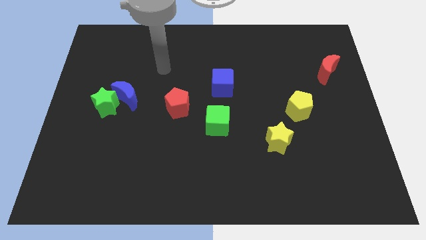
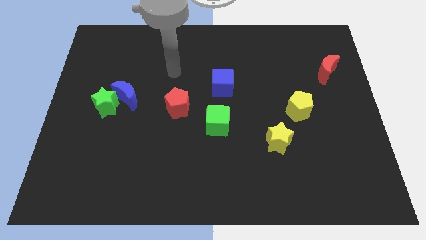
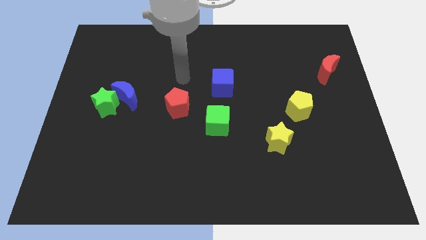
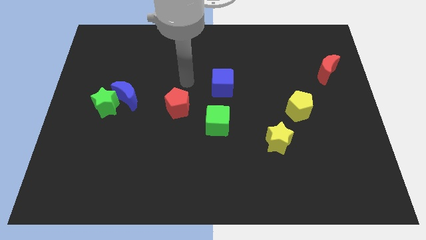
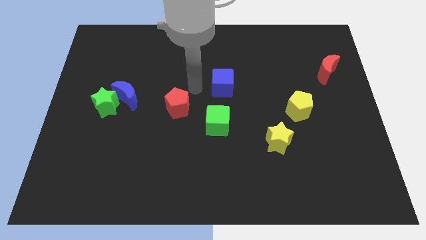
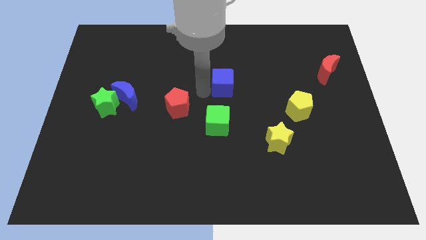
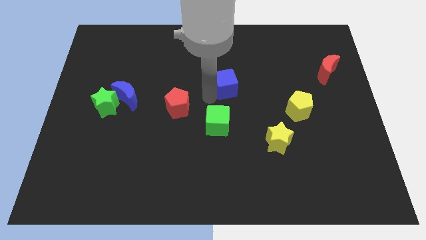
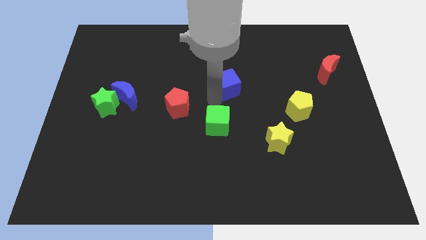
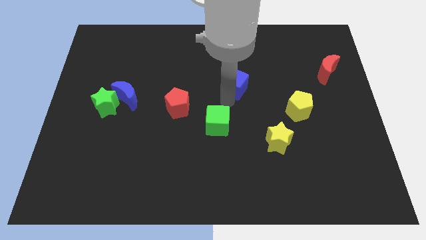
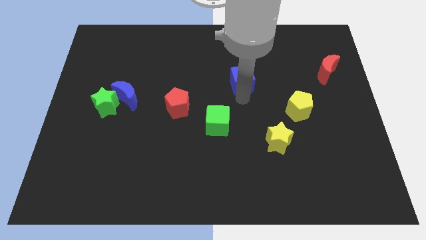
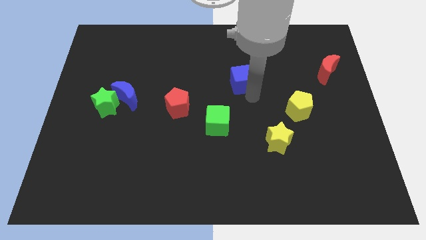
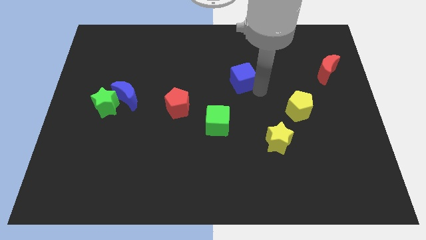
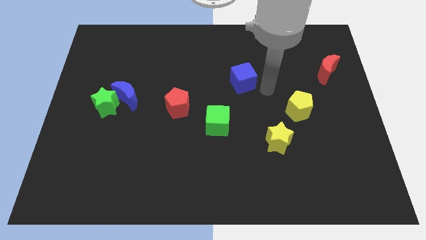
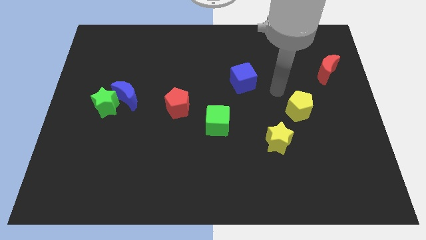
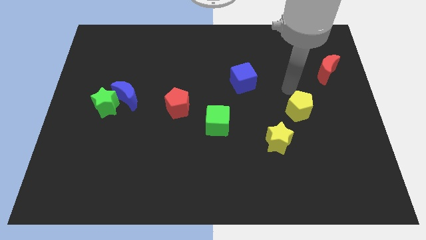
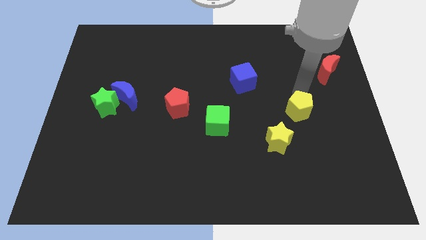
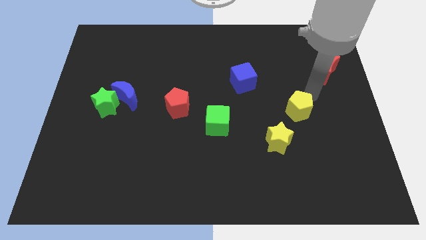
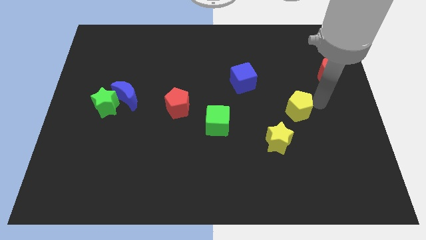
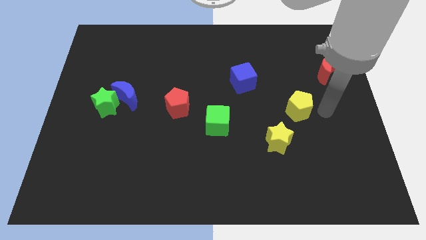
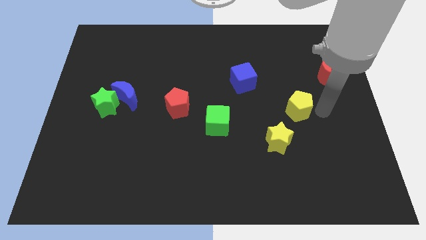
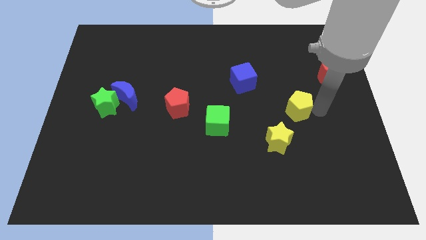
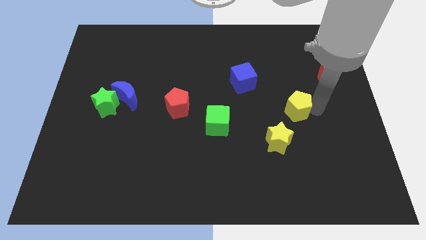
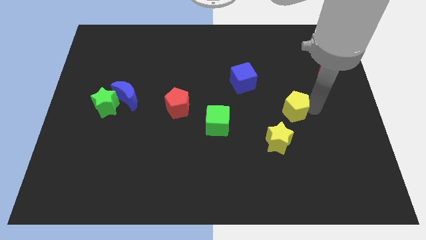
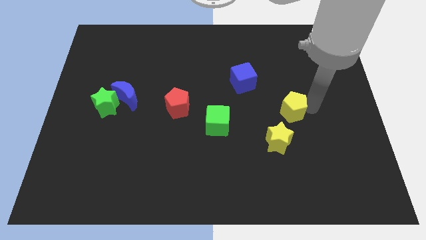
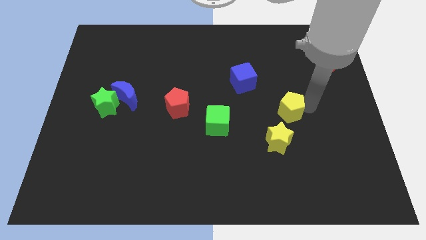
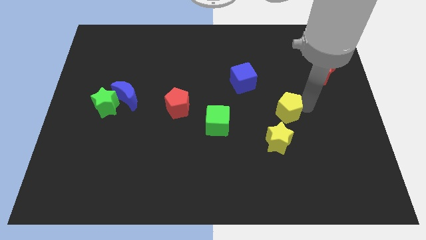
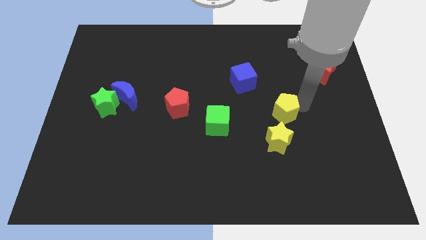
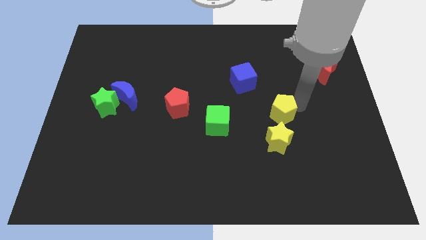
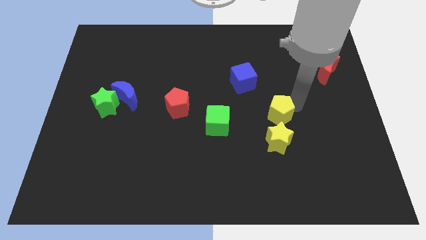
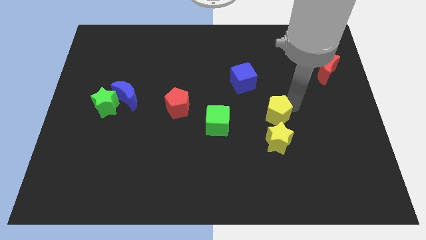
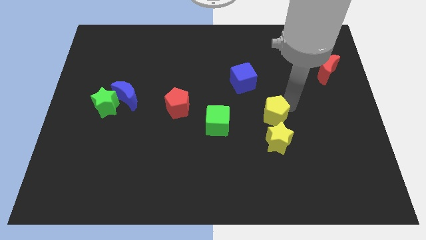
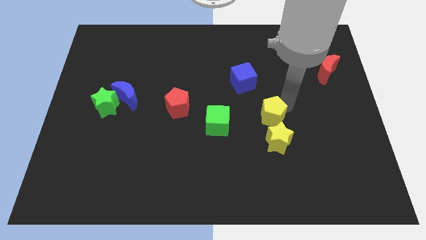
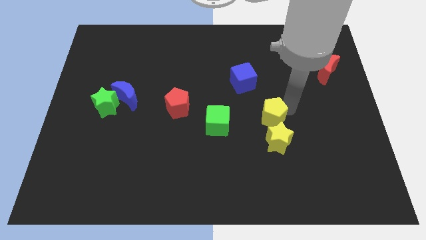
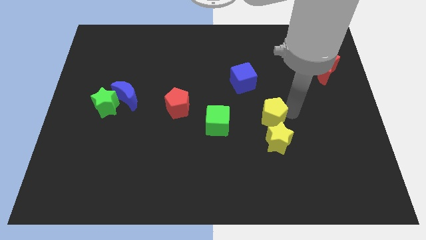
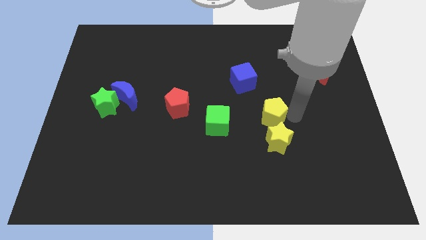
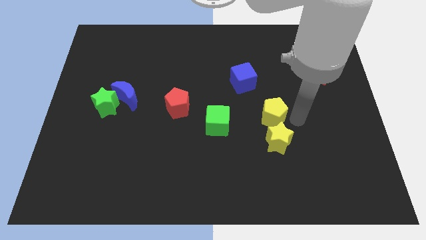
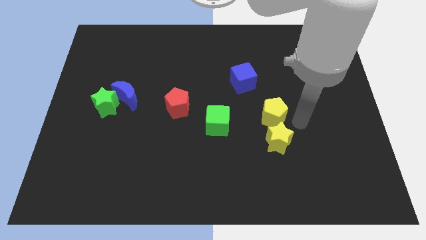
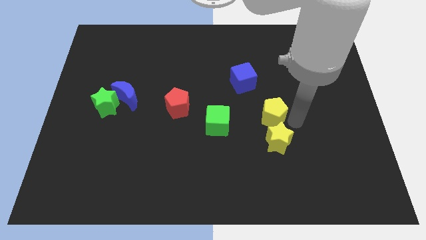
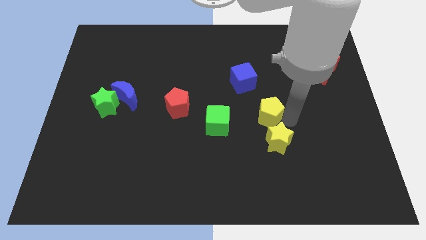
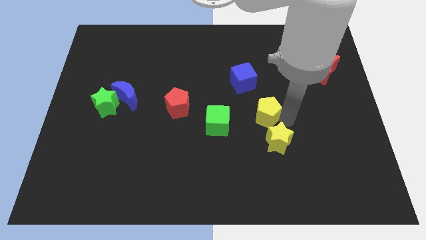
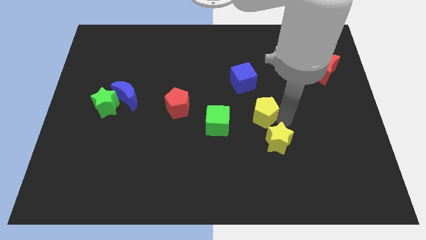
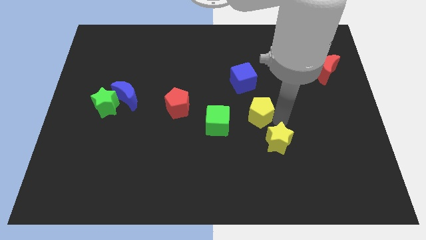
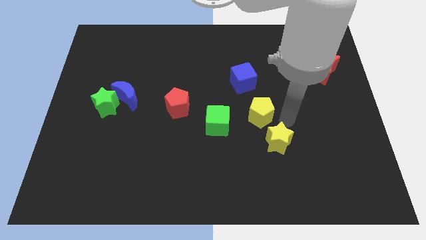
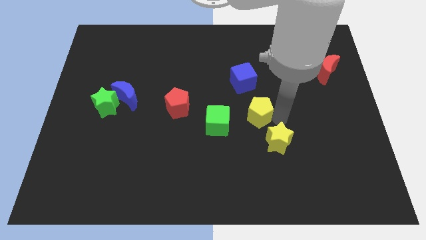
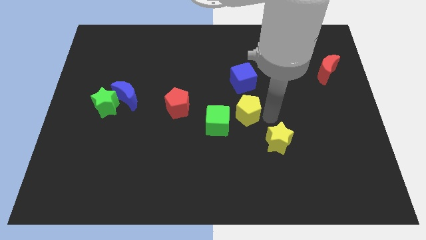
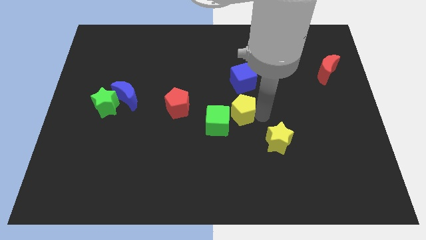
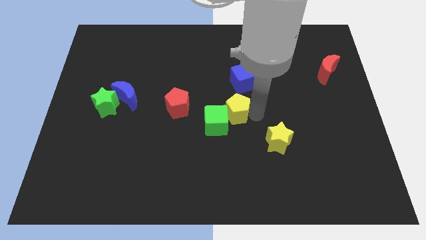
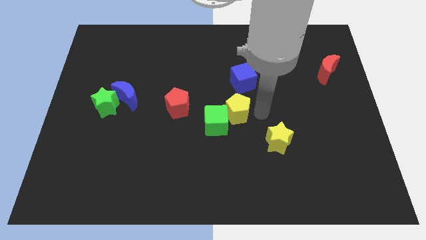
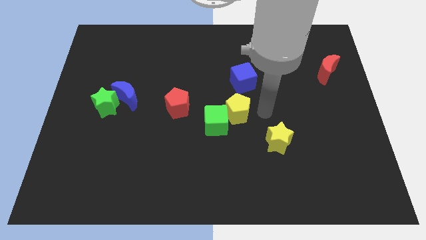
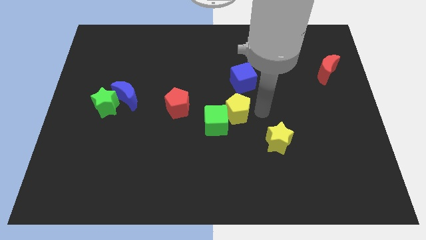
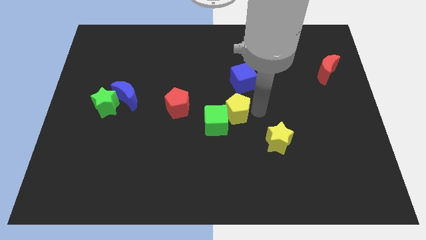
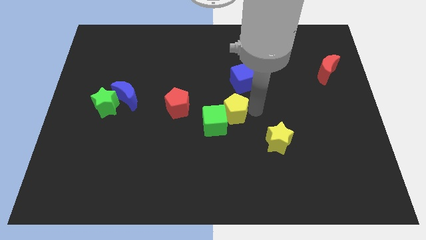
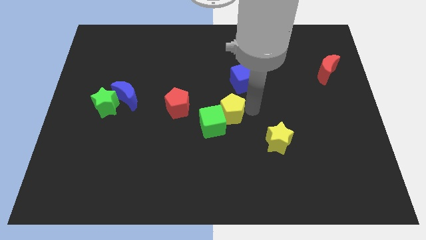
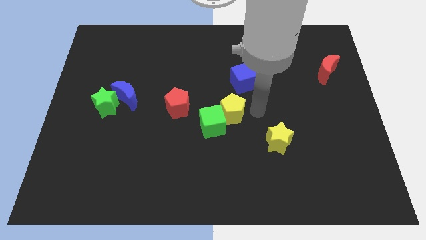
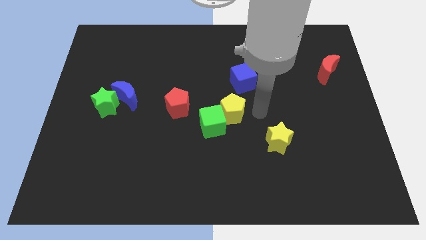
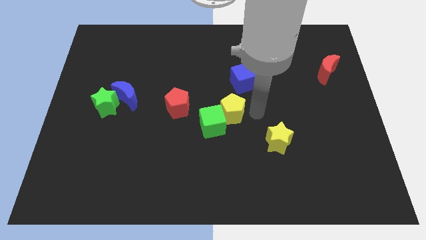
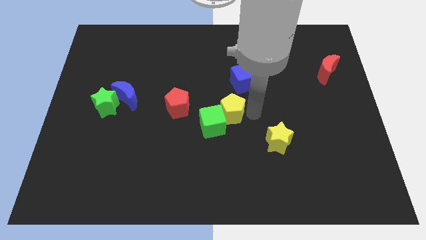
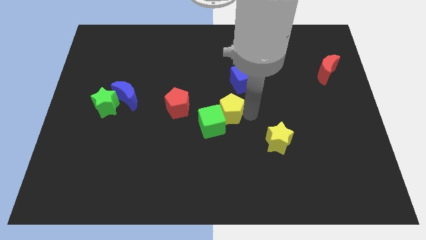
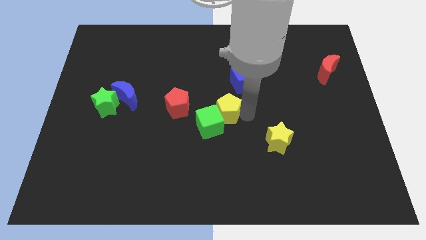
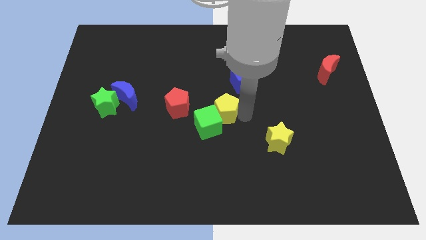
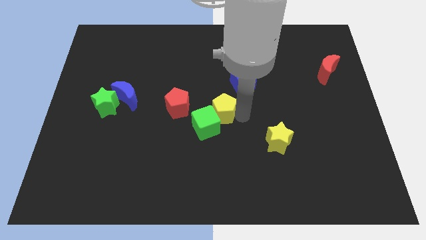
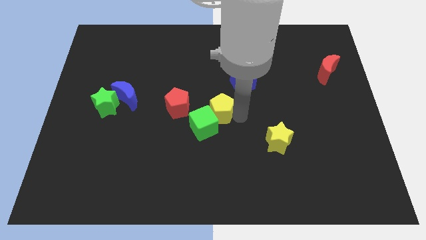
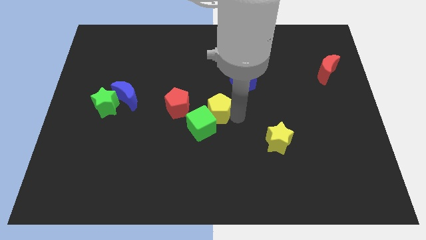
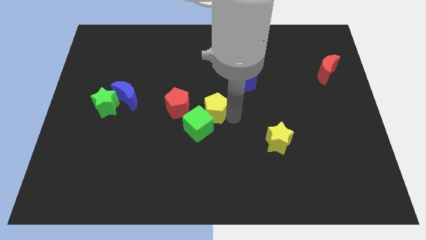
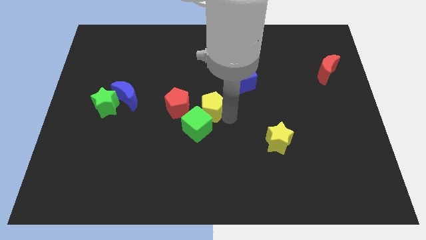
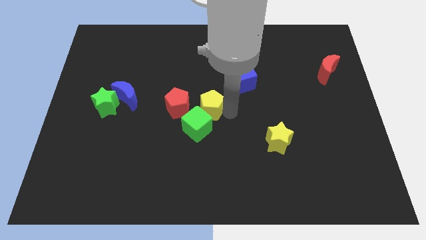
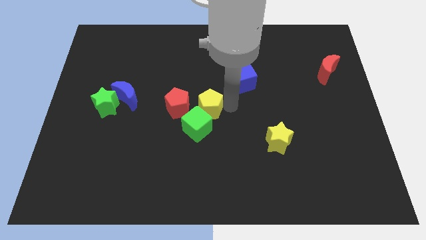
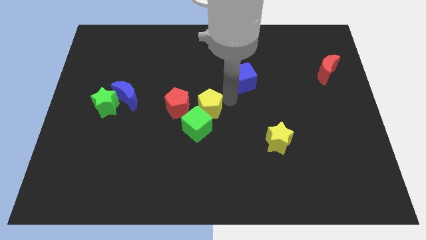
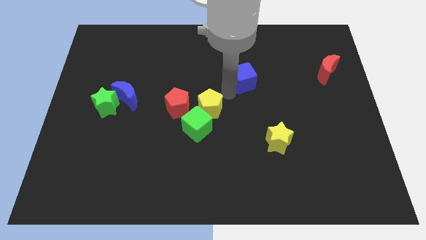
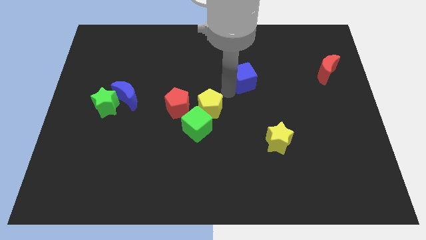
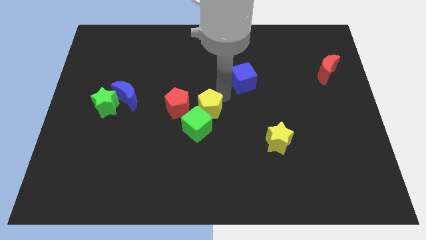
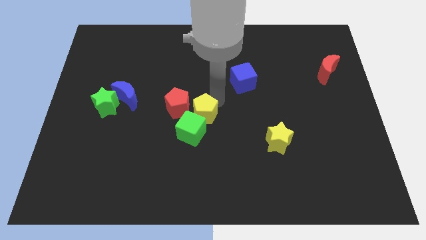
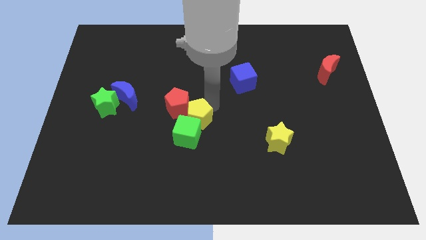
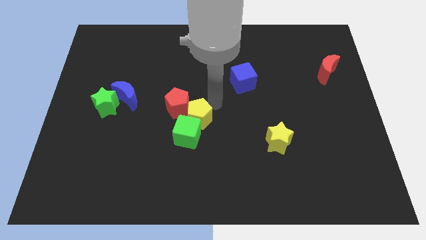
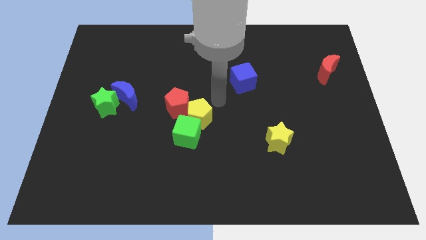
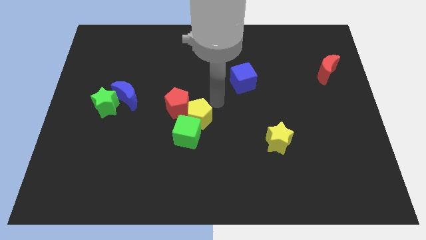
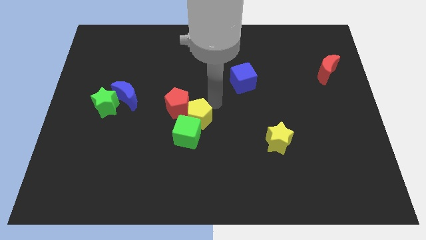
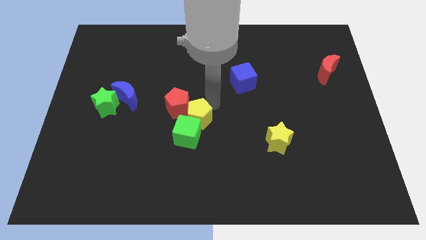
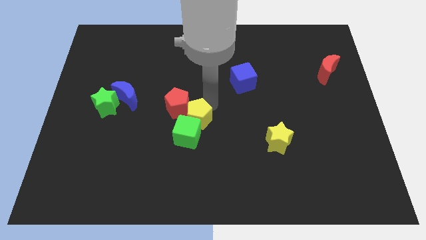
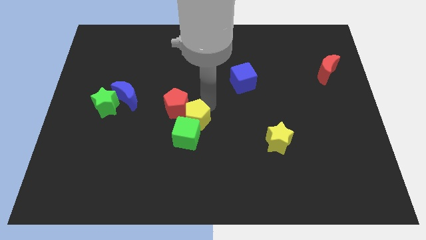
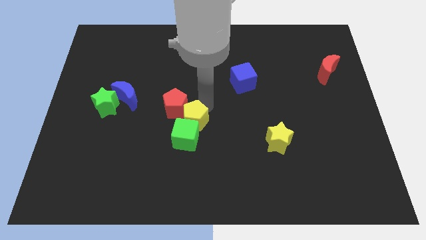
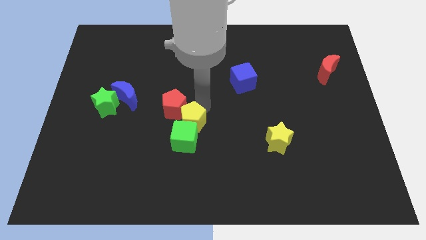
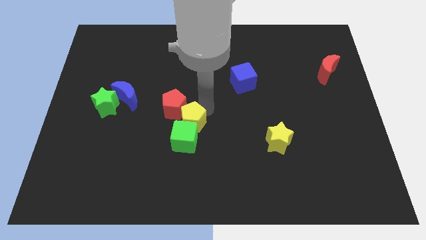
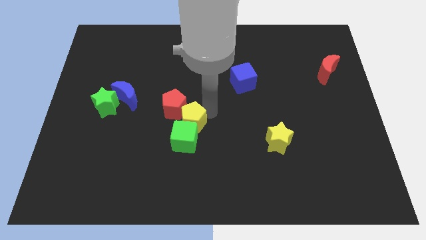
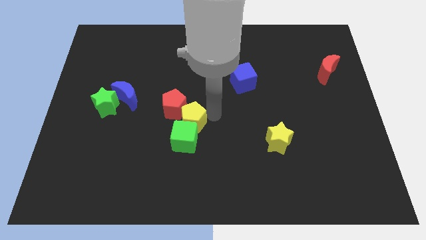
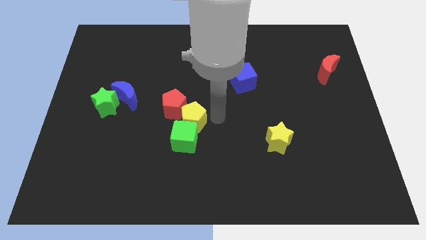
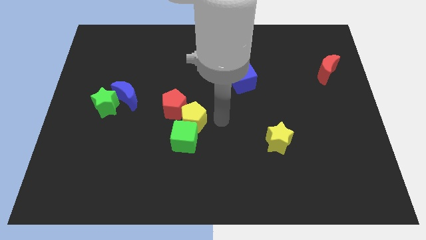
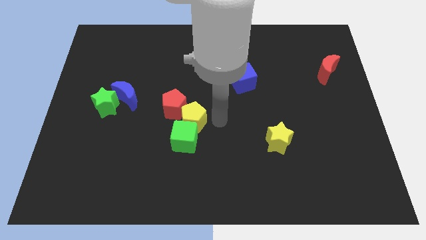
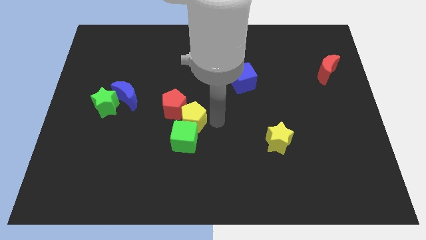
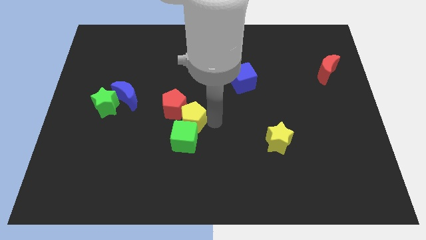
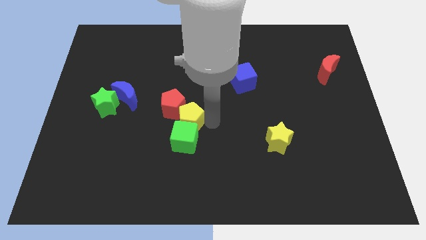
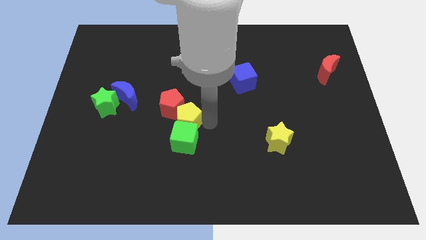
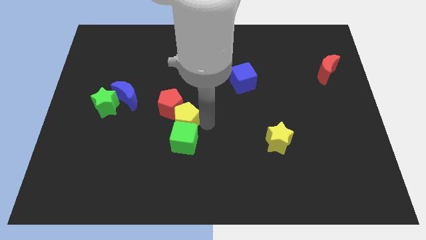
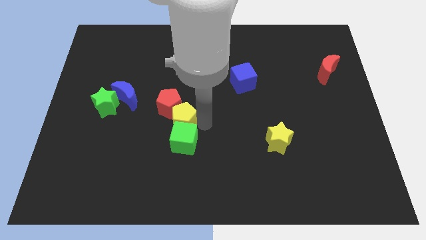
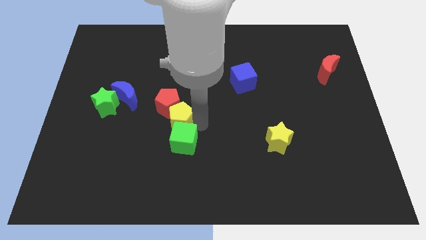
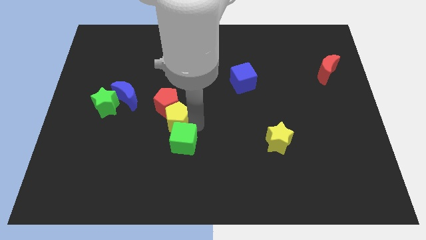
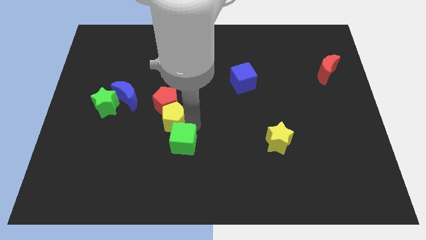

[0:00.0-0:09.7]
move the yellow pentagon to the bottom left of the red pentagon
